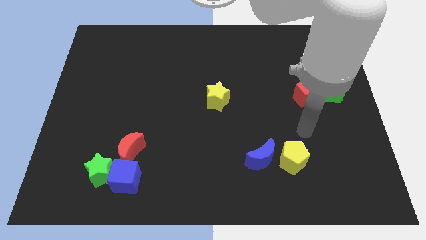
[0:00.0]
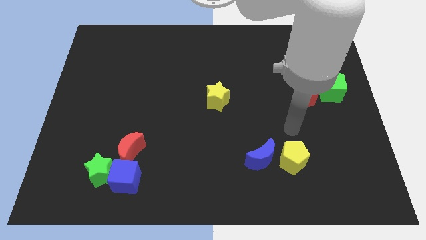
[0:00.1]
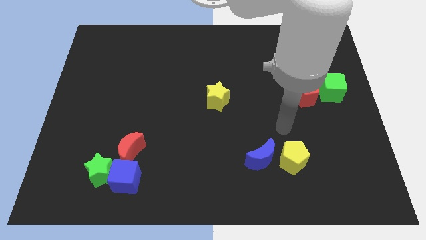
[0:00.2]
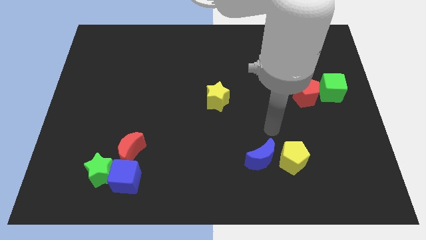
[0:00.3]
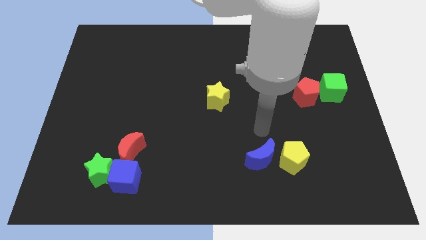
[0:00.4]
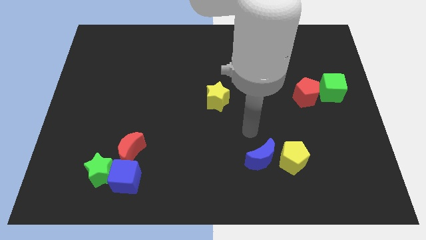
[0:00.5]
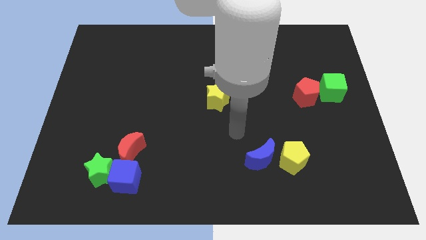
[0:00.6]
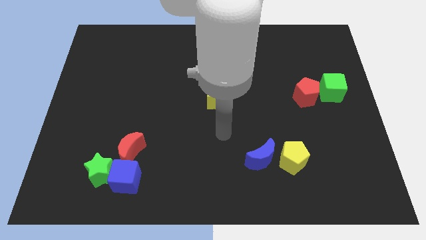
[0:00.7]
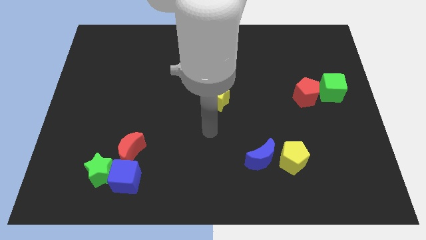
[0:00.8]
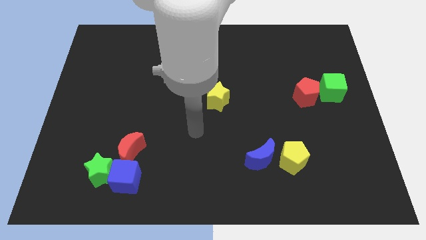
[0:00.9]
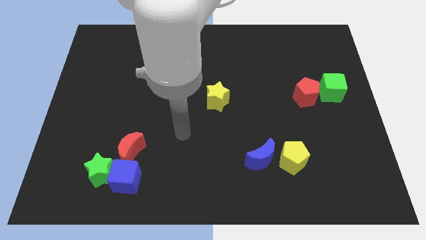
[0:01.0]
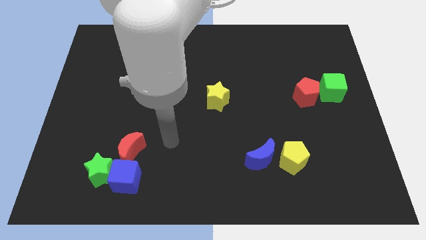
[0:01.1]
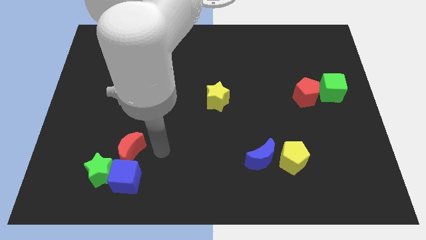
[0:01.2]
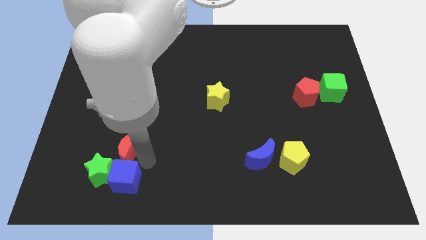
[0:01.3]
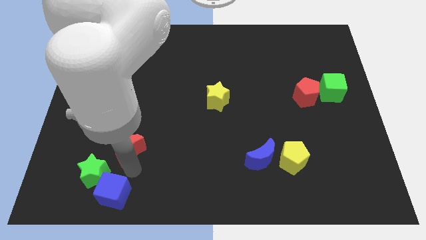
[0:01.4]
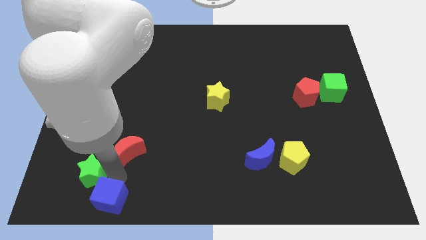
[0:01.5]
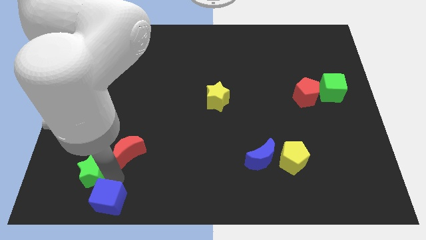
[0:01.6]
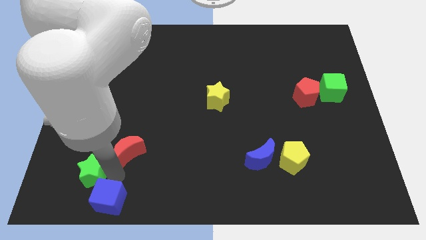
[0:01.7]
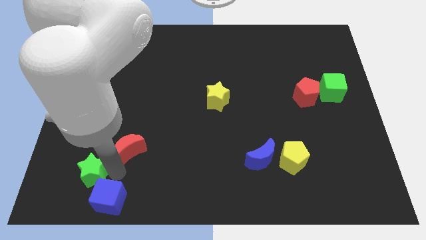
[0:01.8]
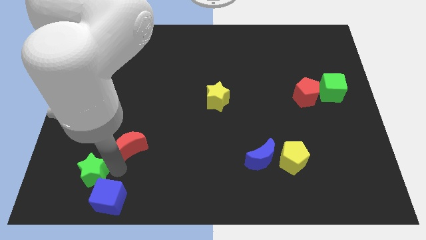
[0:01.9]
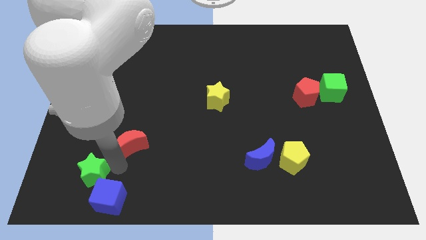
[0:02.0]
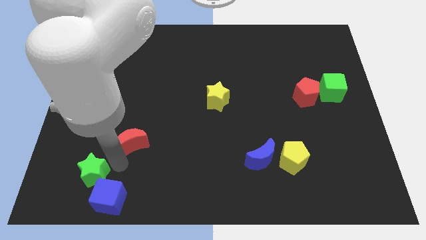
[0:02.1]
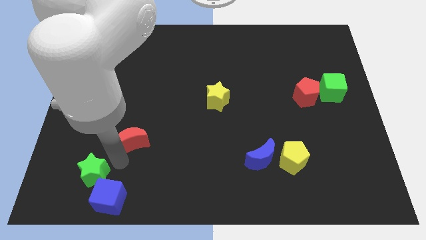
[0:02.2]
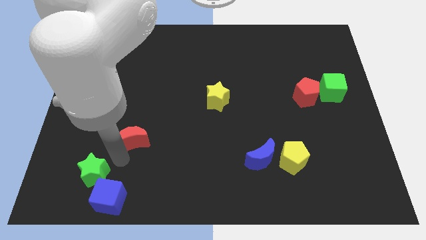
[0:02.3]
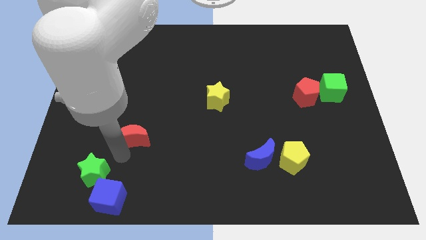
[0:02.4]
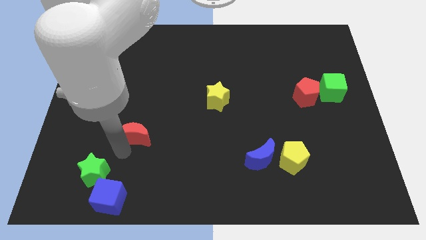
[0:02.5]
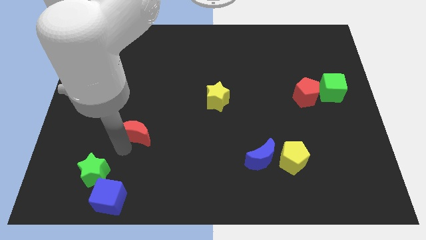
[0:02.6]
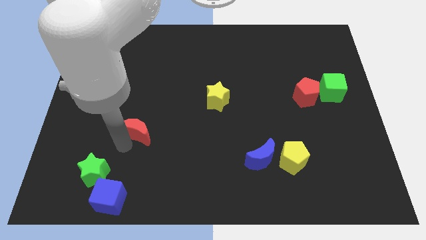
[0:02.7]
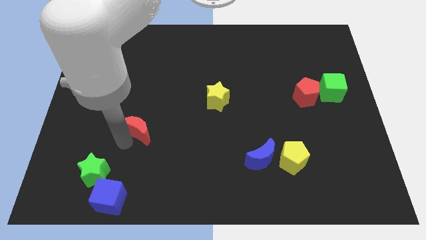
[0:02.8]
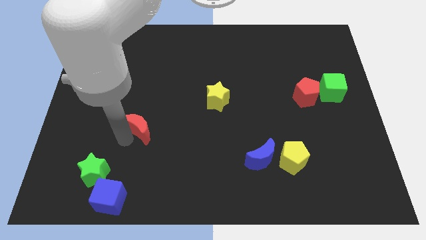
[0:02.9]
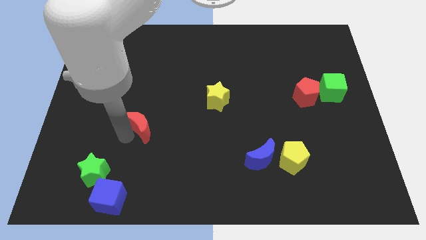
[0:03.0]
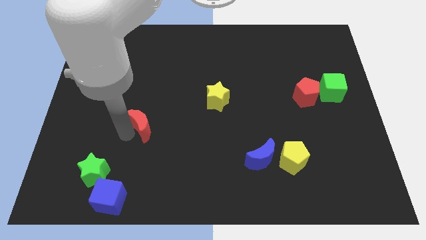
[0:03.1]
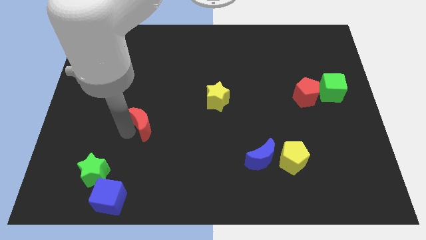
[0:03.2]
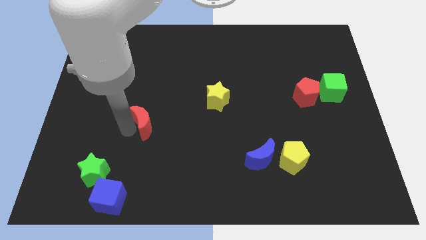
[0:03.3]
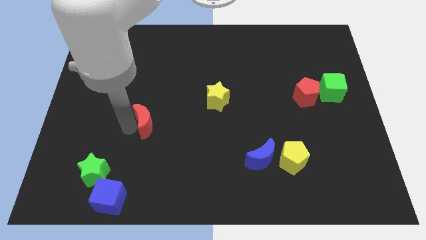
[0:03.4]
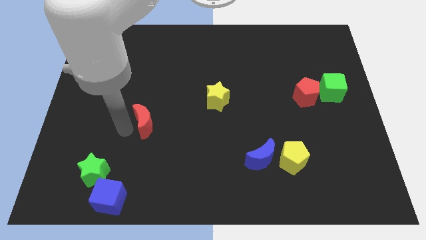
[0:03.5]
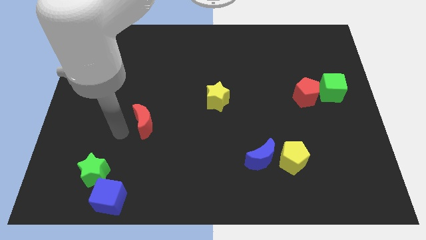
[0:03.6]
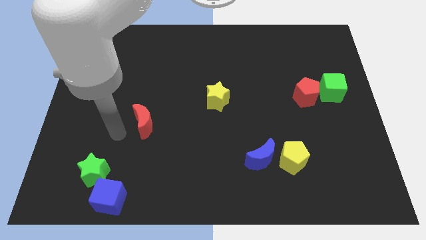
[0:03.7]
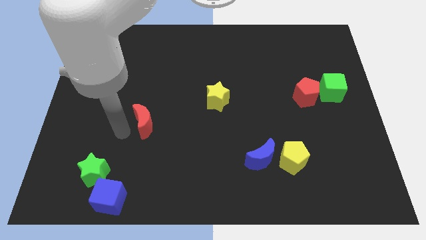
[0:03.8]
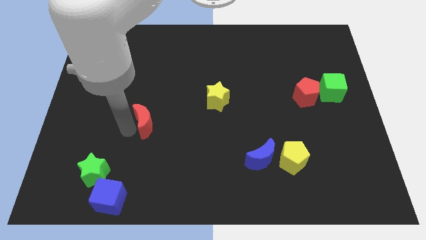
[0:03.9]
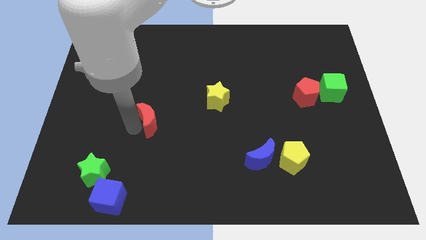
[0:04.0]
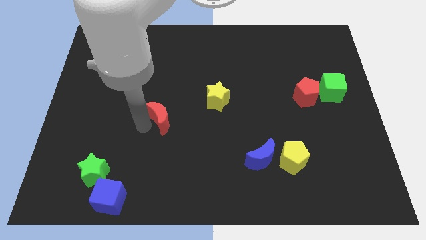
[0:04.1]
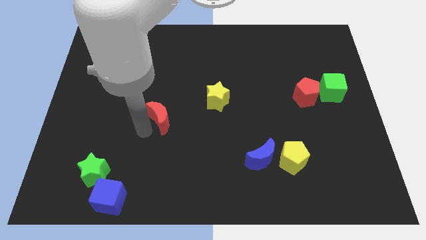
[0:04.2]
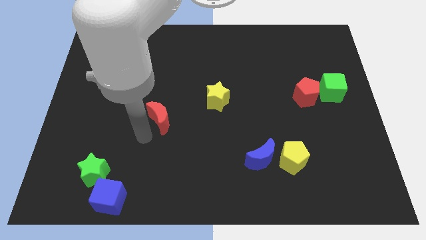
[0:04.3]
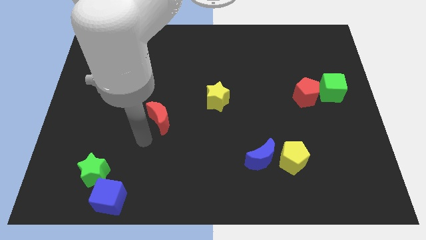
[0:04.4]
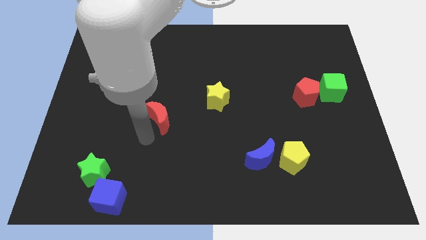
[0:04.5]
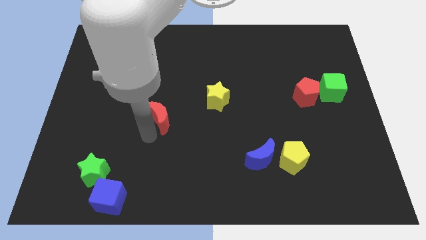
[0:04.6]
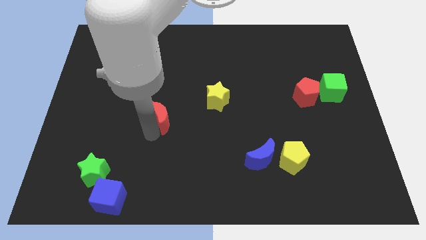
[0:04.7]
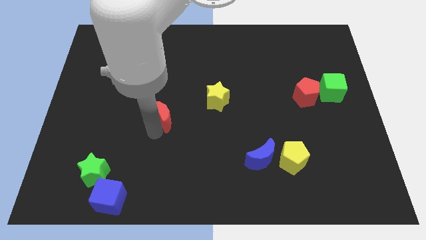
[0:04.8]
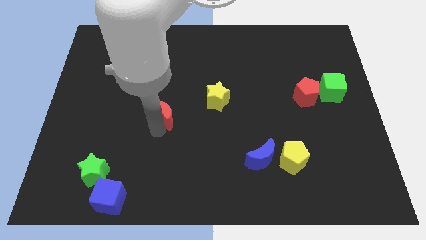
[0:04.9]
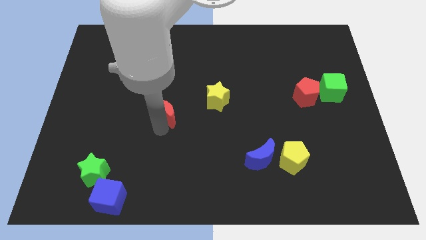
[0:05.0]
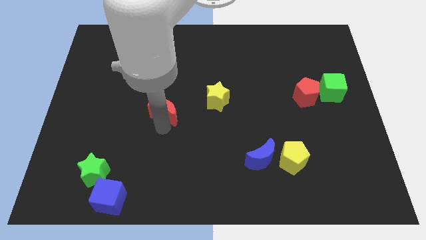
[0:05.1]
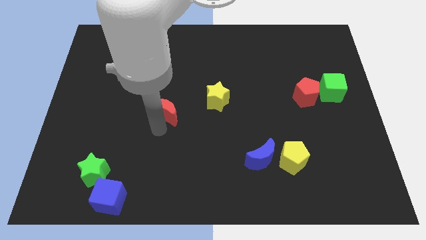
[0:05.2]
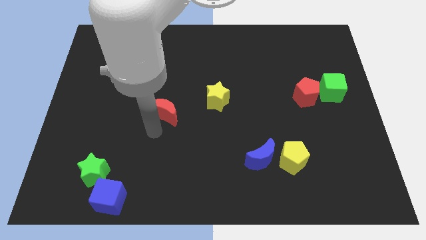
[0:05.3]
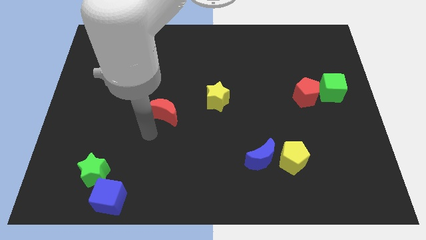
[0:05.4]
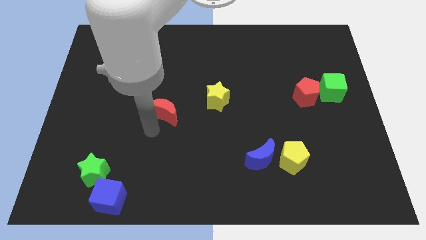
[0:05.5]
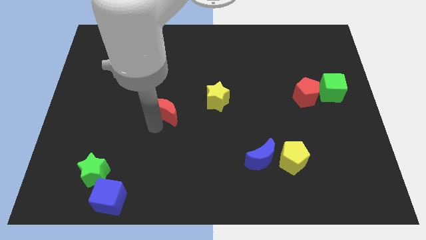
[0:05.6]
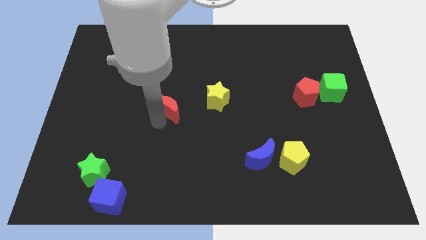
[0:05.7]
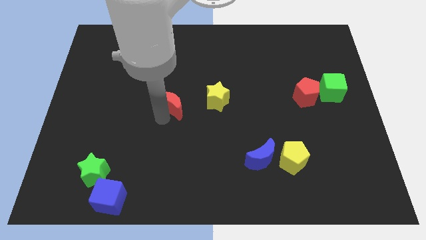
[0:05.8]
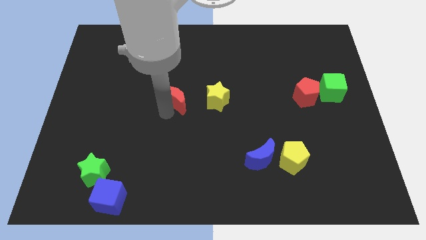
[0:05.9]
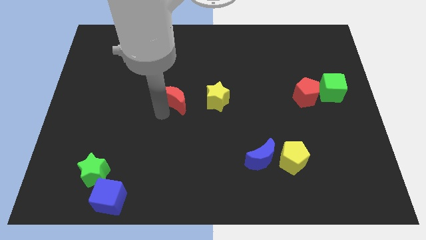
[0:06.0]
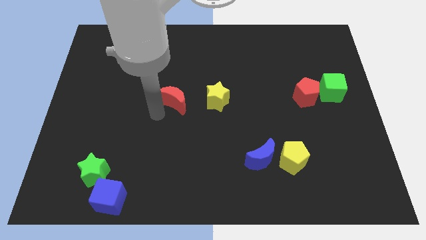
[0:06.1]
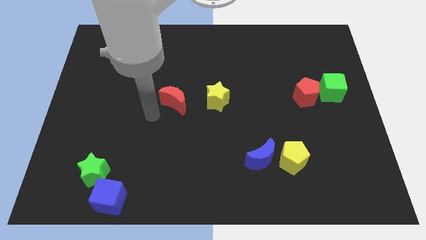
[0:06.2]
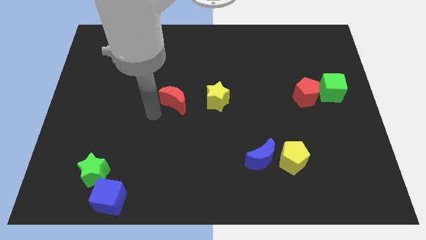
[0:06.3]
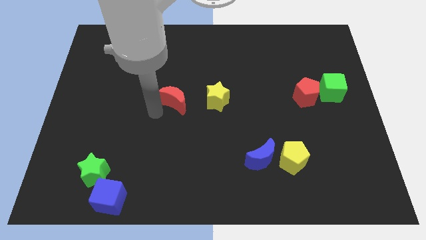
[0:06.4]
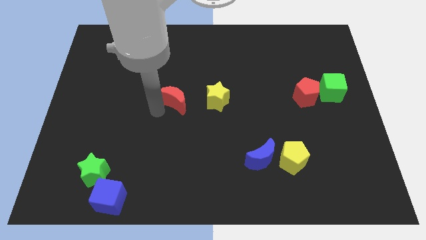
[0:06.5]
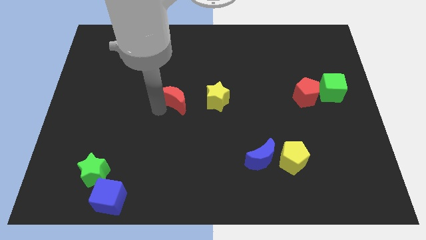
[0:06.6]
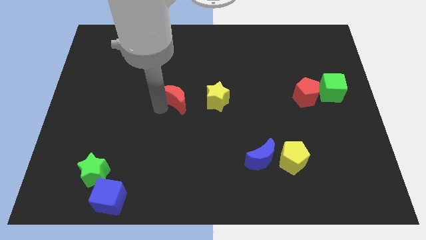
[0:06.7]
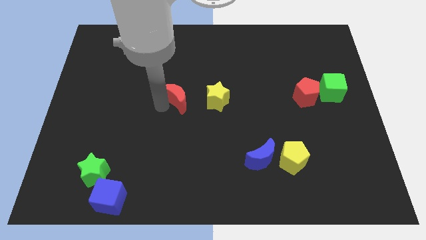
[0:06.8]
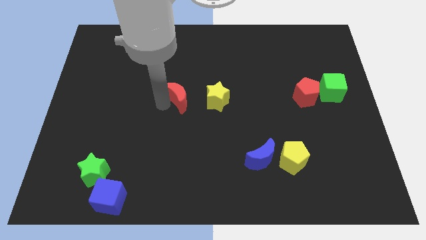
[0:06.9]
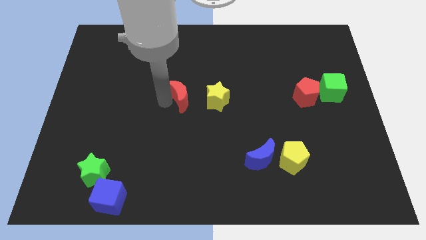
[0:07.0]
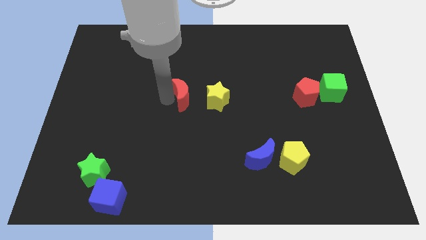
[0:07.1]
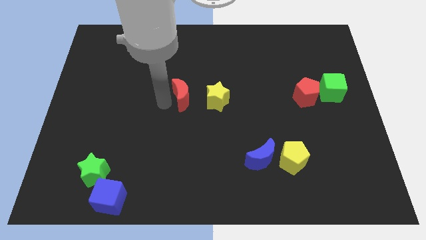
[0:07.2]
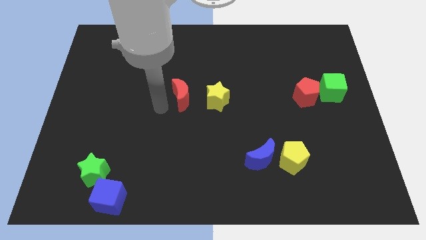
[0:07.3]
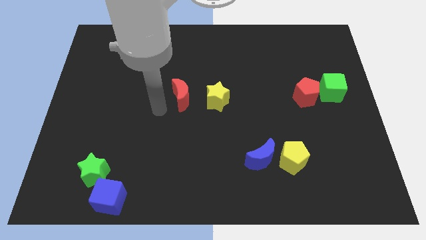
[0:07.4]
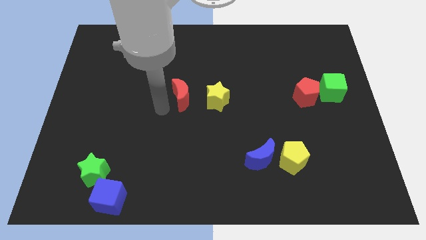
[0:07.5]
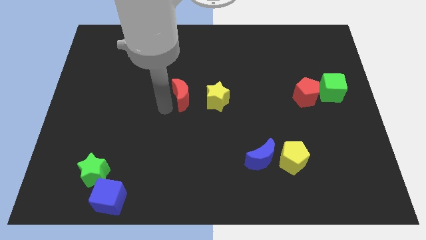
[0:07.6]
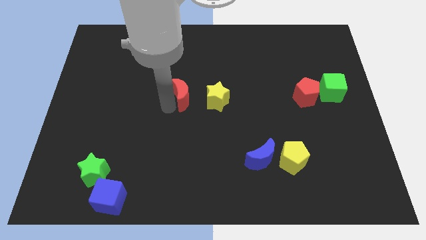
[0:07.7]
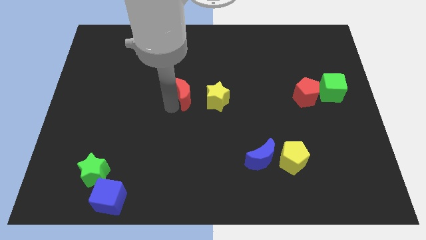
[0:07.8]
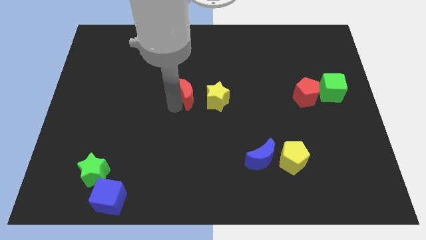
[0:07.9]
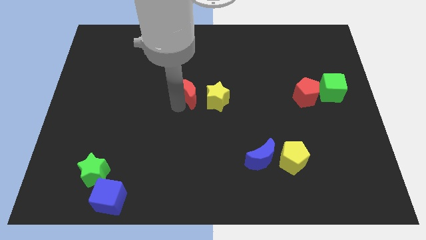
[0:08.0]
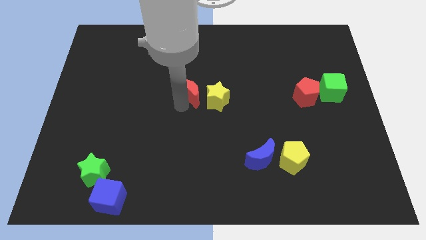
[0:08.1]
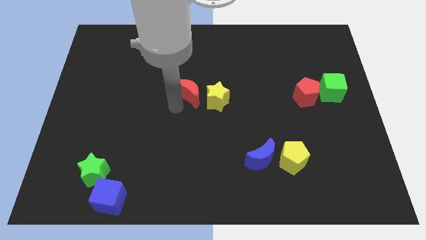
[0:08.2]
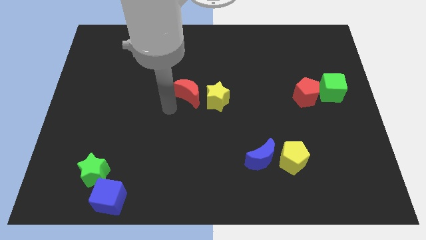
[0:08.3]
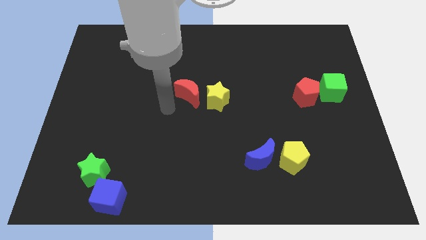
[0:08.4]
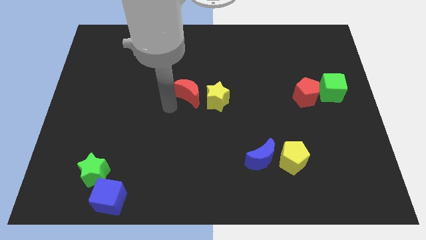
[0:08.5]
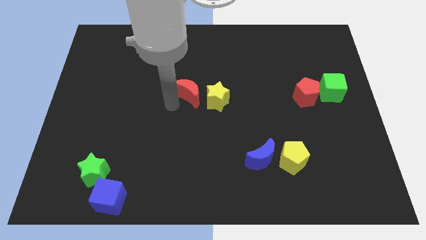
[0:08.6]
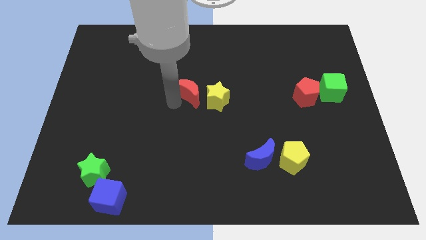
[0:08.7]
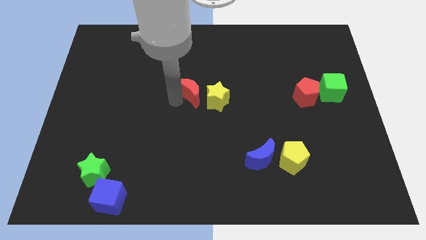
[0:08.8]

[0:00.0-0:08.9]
slide the red moon up and right diagonally
